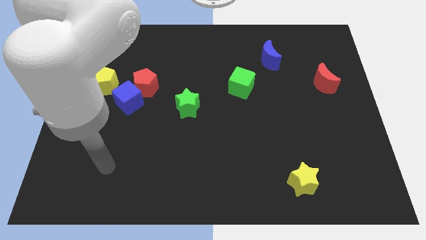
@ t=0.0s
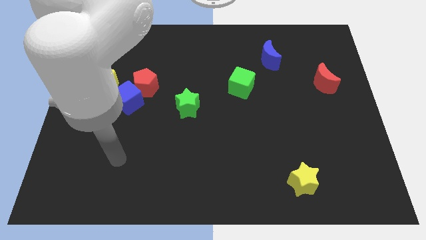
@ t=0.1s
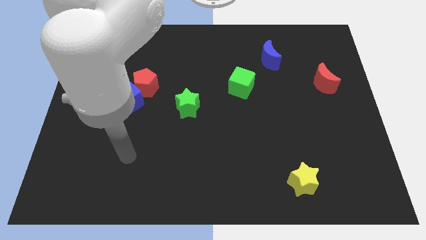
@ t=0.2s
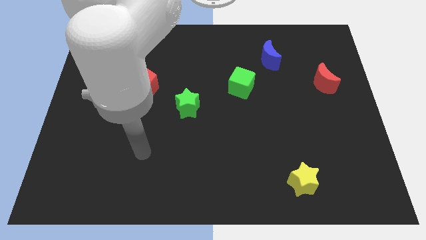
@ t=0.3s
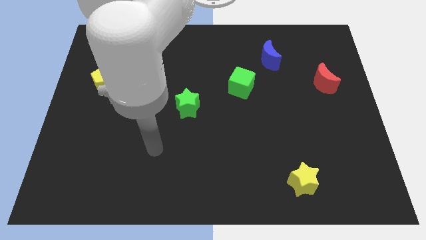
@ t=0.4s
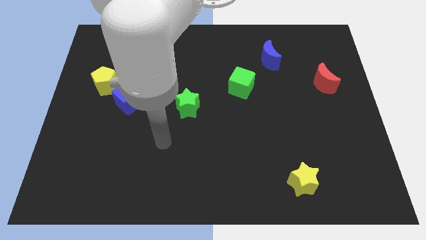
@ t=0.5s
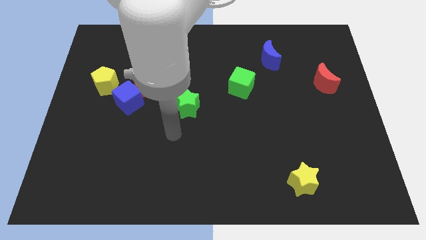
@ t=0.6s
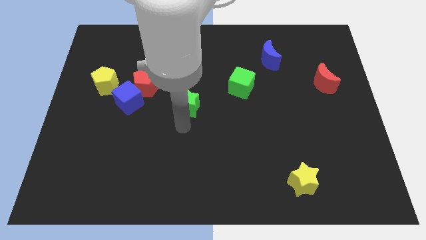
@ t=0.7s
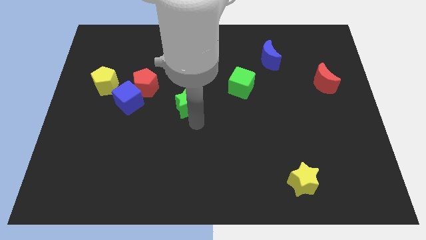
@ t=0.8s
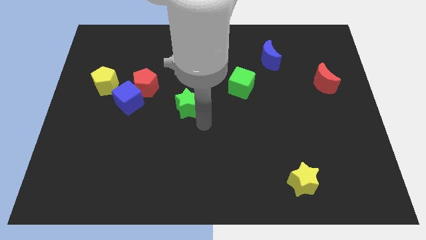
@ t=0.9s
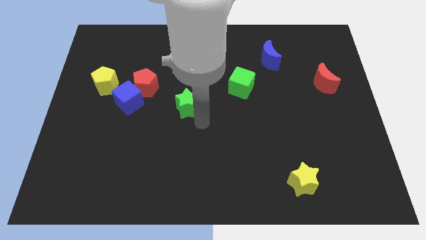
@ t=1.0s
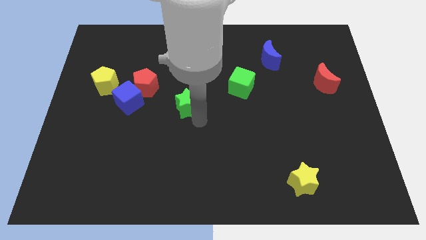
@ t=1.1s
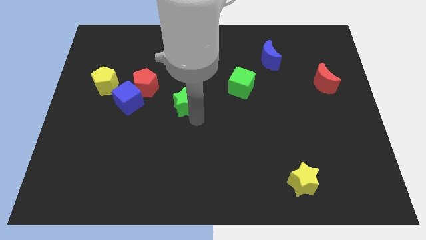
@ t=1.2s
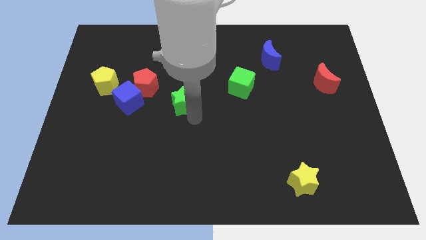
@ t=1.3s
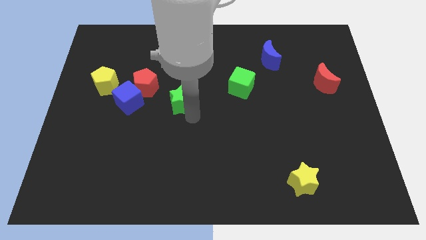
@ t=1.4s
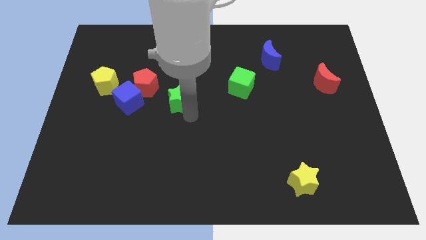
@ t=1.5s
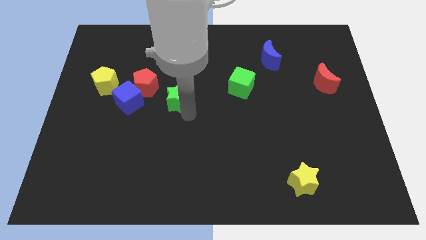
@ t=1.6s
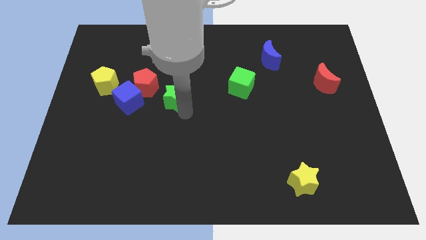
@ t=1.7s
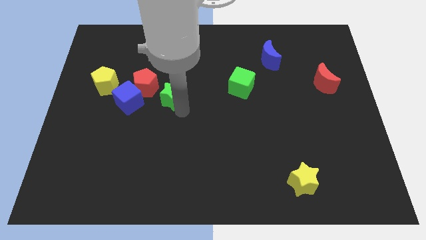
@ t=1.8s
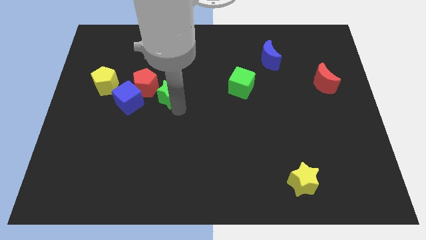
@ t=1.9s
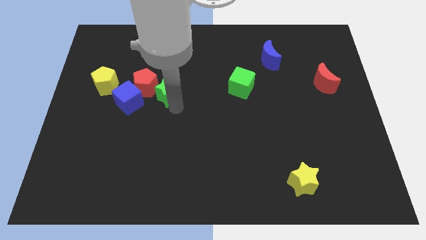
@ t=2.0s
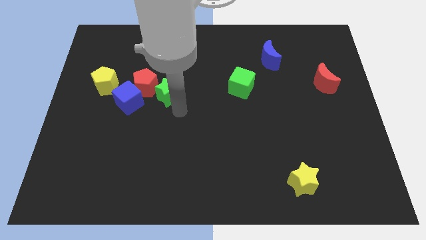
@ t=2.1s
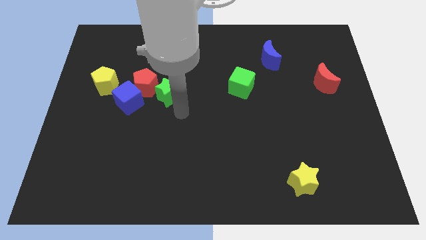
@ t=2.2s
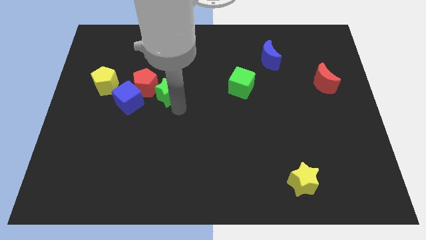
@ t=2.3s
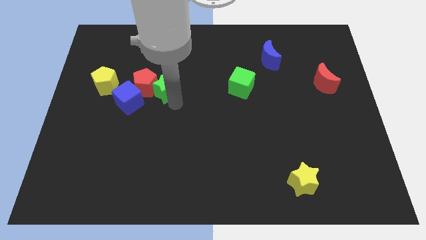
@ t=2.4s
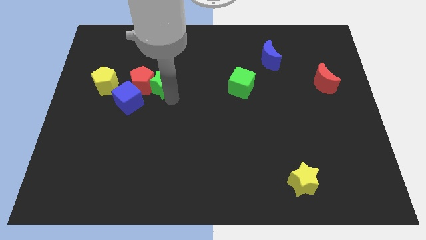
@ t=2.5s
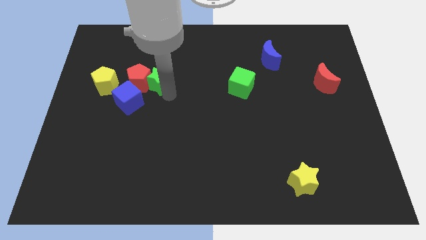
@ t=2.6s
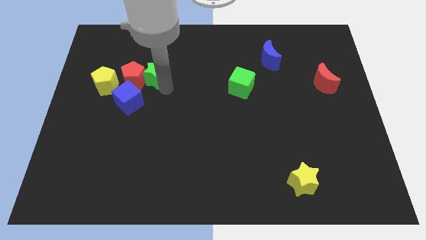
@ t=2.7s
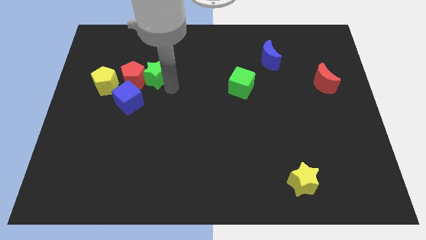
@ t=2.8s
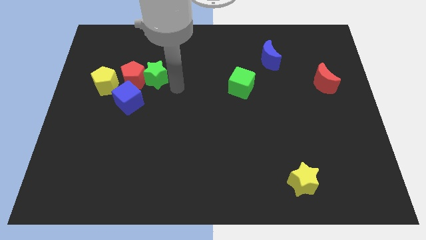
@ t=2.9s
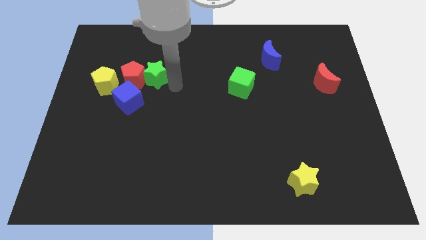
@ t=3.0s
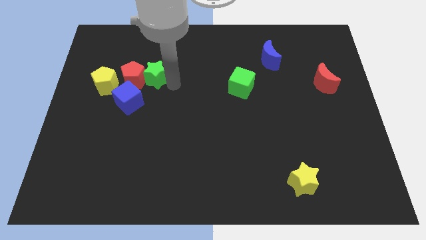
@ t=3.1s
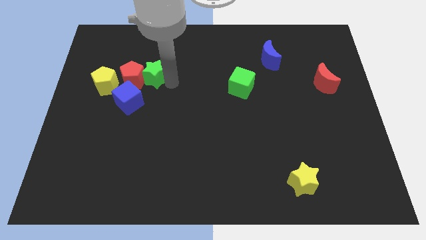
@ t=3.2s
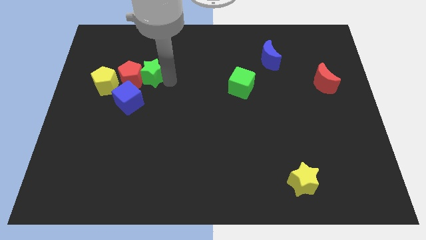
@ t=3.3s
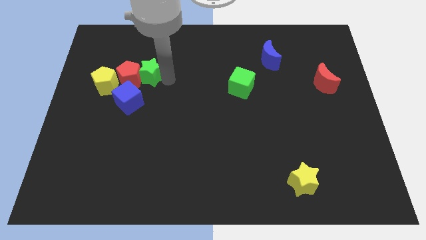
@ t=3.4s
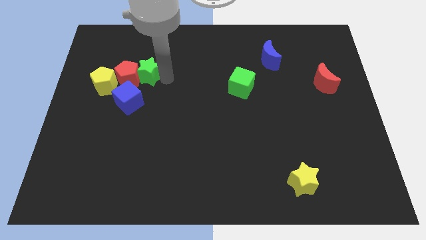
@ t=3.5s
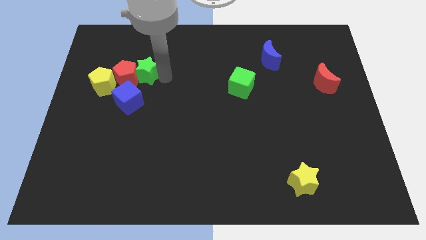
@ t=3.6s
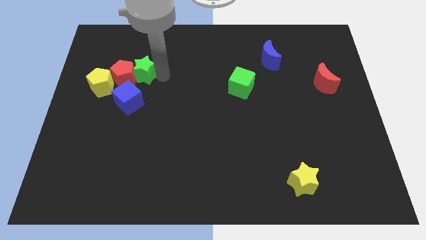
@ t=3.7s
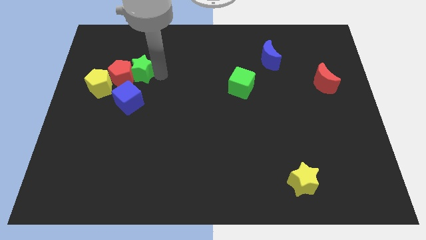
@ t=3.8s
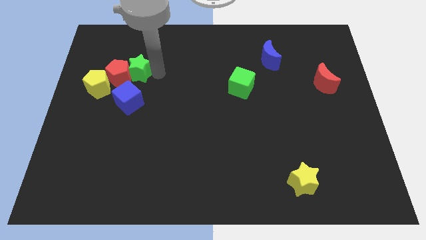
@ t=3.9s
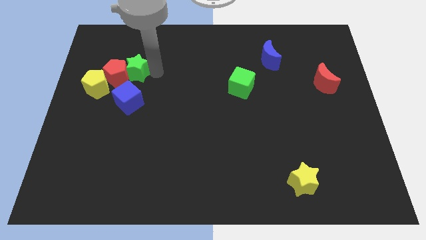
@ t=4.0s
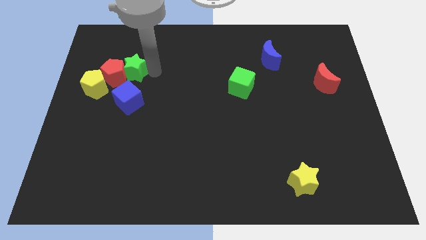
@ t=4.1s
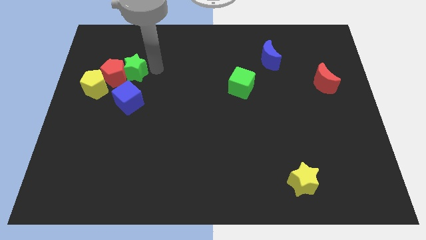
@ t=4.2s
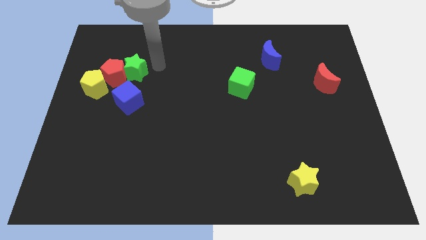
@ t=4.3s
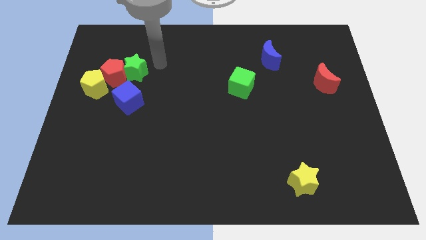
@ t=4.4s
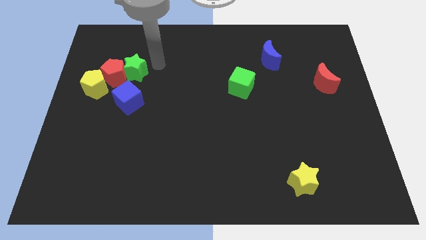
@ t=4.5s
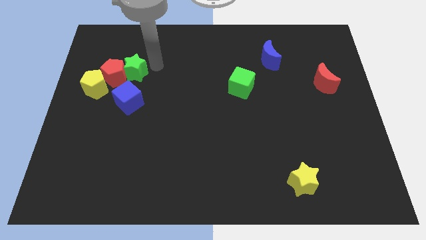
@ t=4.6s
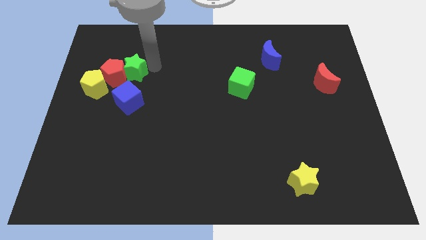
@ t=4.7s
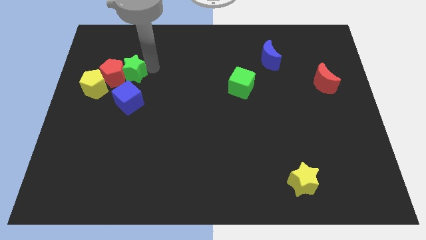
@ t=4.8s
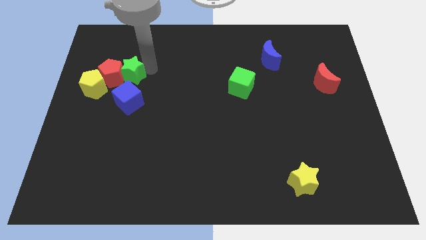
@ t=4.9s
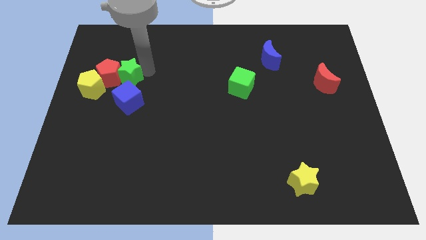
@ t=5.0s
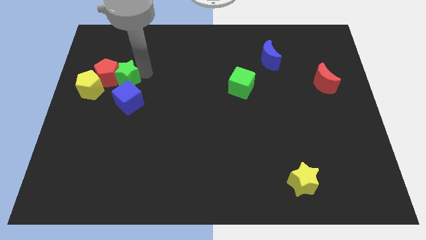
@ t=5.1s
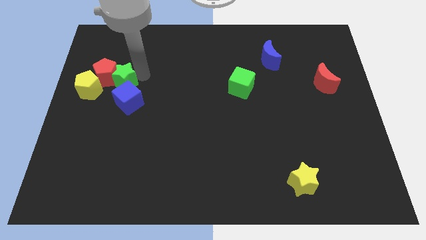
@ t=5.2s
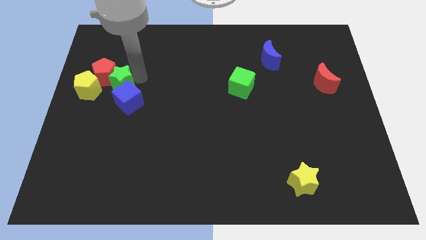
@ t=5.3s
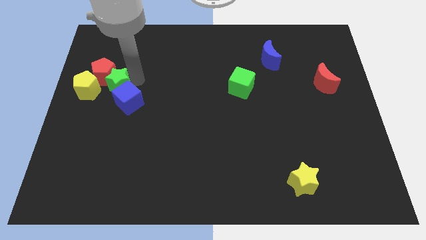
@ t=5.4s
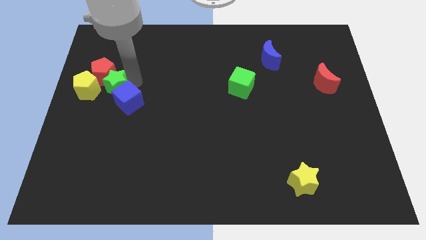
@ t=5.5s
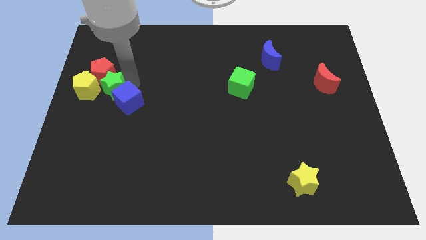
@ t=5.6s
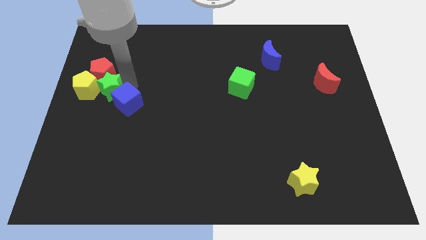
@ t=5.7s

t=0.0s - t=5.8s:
move the green star towards the yellow pentagon

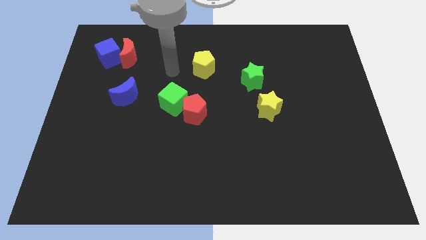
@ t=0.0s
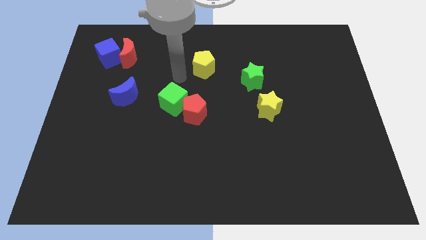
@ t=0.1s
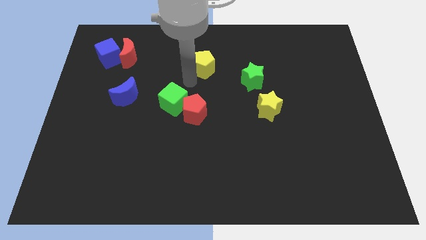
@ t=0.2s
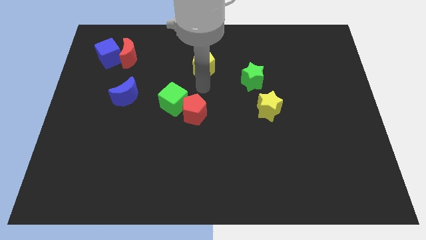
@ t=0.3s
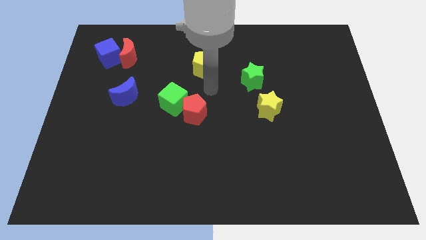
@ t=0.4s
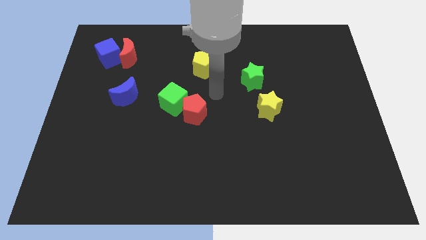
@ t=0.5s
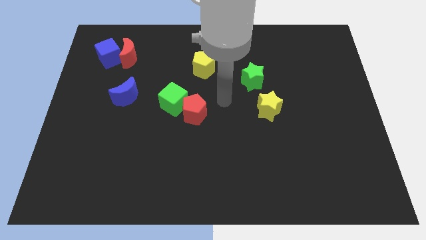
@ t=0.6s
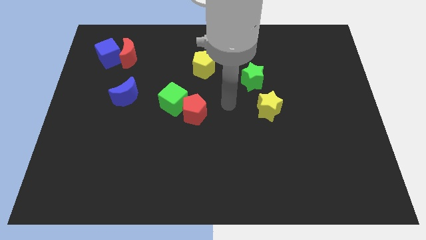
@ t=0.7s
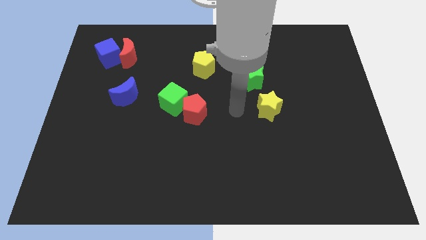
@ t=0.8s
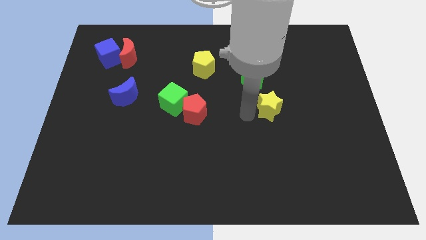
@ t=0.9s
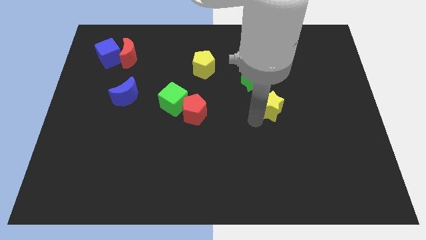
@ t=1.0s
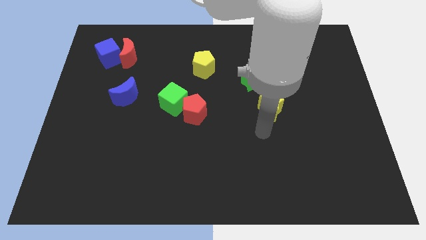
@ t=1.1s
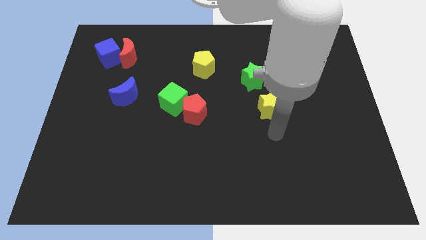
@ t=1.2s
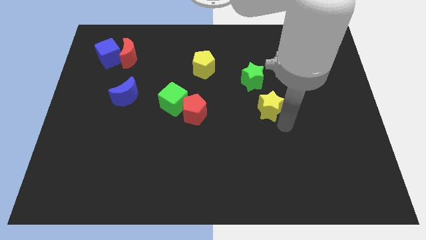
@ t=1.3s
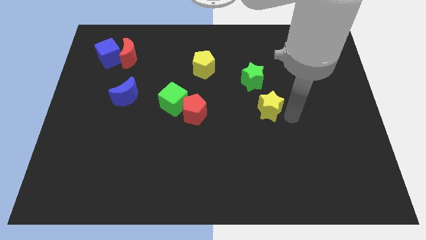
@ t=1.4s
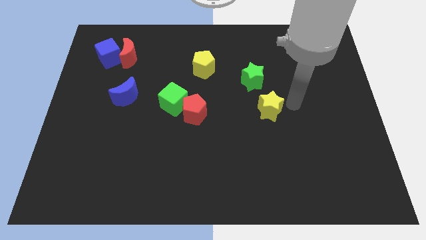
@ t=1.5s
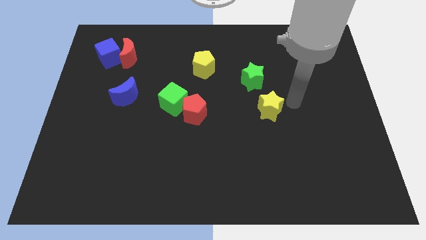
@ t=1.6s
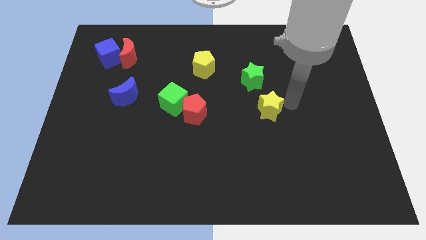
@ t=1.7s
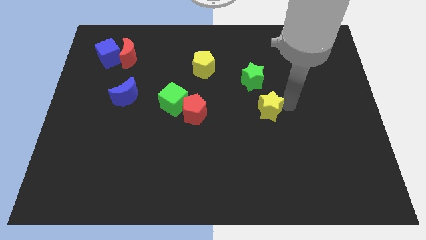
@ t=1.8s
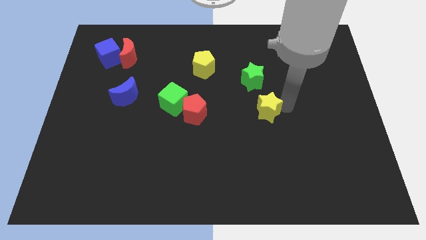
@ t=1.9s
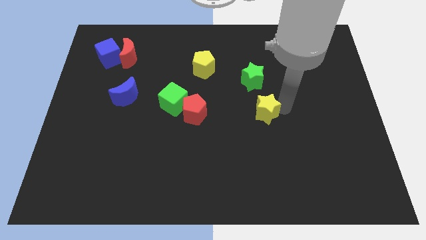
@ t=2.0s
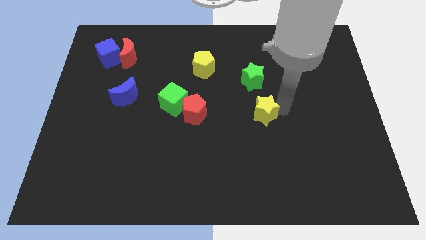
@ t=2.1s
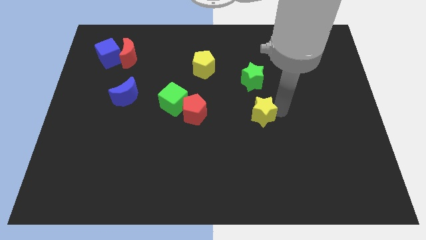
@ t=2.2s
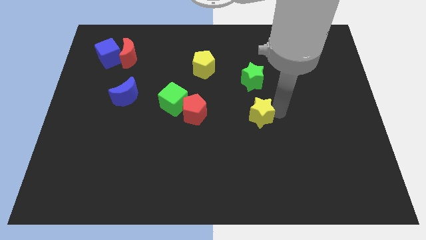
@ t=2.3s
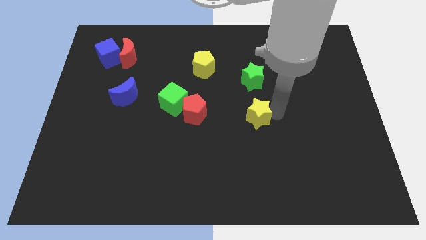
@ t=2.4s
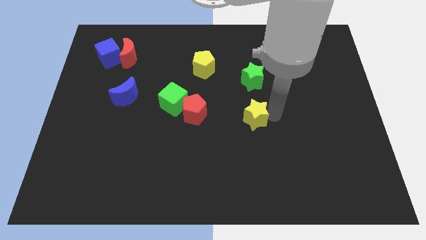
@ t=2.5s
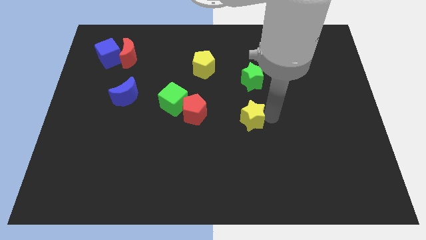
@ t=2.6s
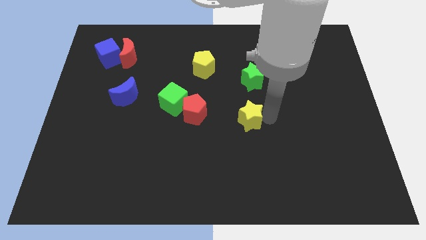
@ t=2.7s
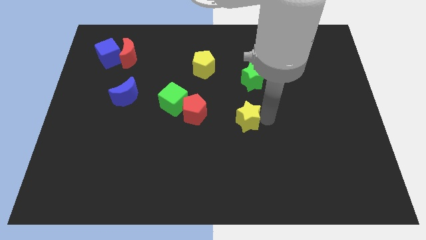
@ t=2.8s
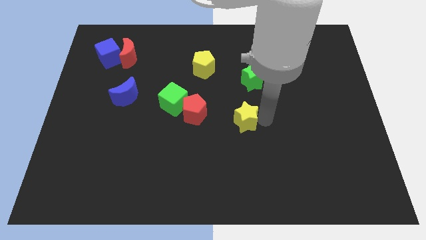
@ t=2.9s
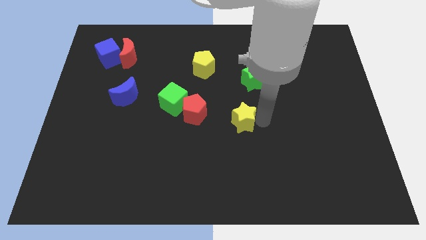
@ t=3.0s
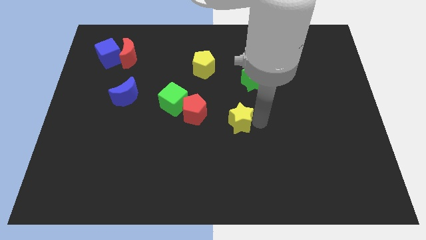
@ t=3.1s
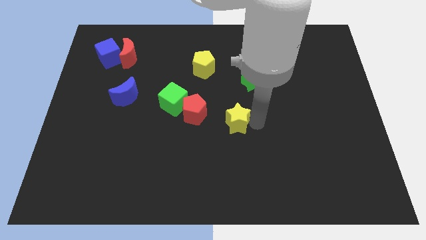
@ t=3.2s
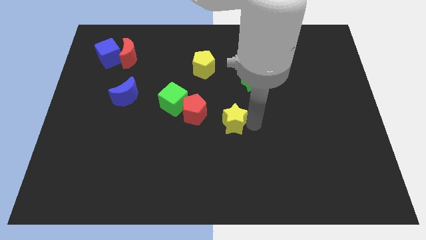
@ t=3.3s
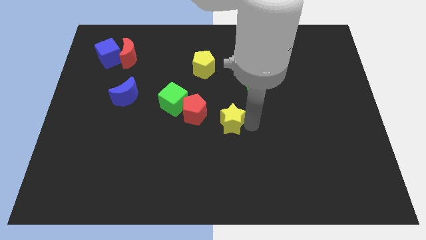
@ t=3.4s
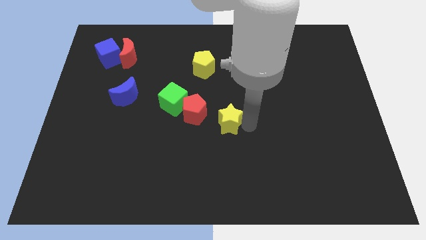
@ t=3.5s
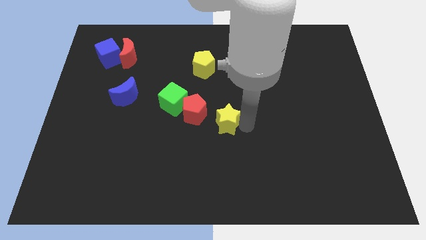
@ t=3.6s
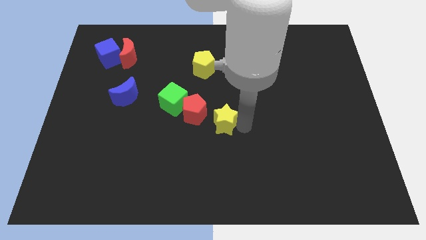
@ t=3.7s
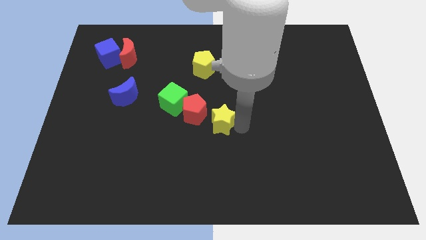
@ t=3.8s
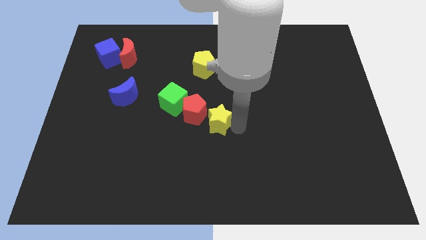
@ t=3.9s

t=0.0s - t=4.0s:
push the yellow star towards the red pentagon
